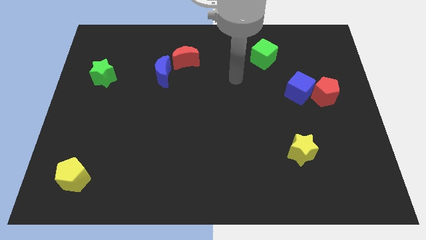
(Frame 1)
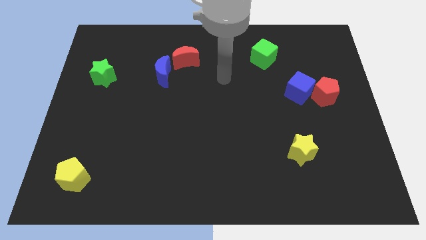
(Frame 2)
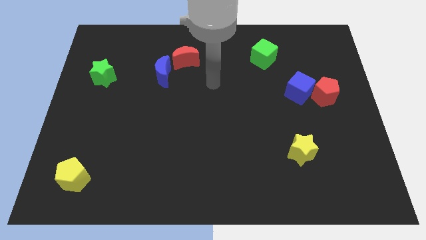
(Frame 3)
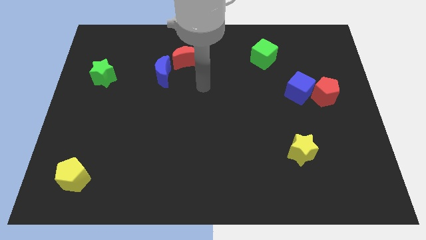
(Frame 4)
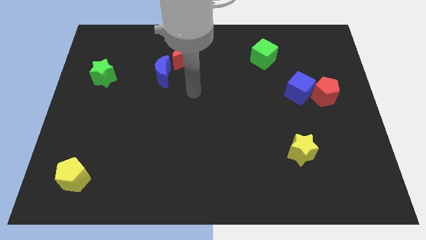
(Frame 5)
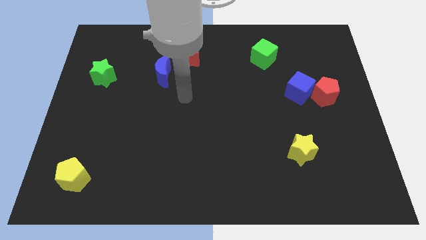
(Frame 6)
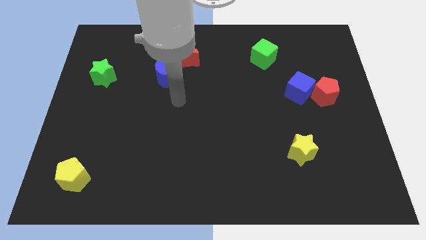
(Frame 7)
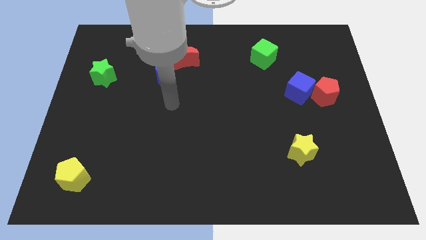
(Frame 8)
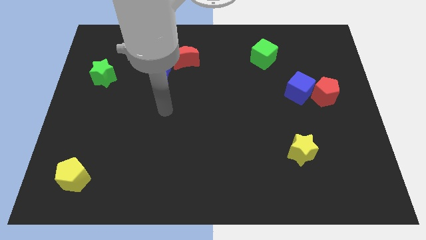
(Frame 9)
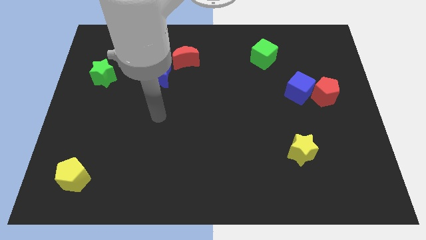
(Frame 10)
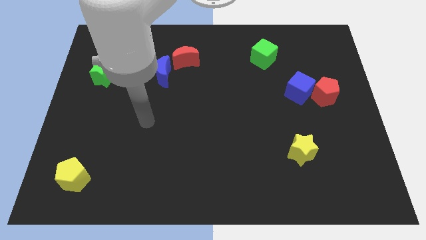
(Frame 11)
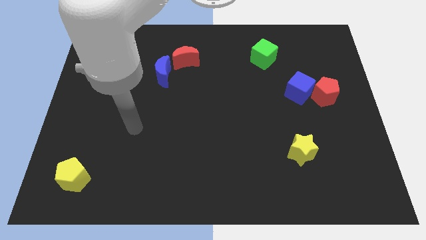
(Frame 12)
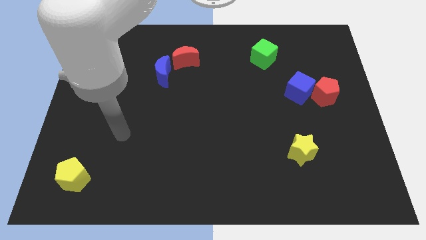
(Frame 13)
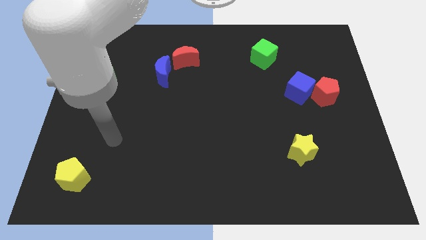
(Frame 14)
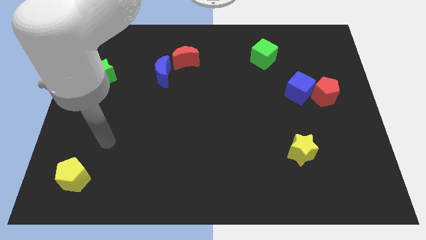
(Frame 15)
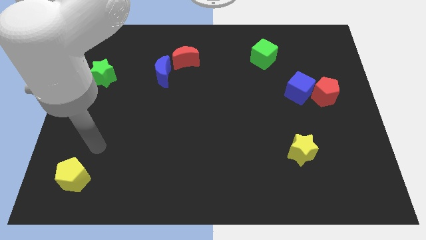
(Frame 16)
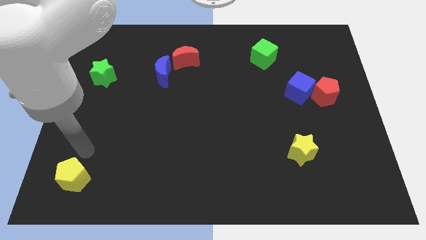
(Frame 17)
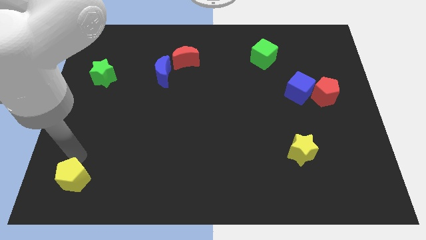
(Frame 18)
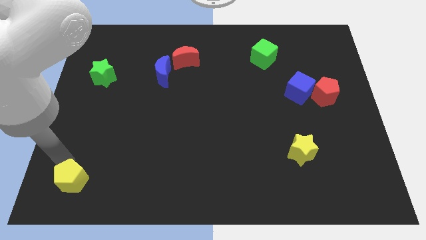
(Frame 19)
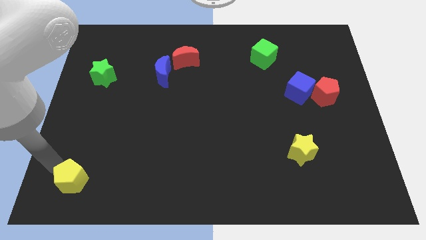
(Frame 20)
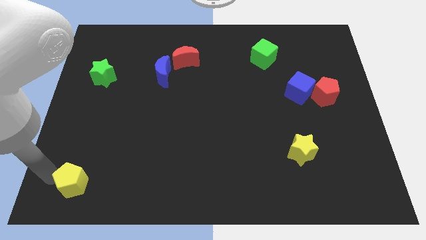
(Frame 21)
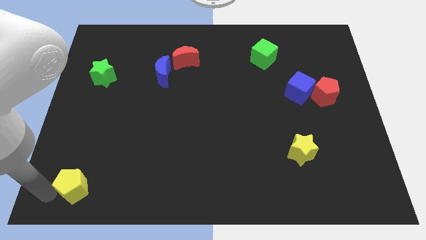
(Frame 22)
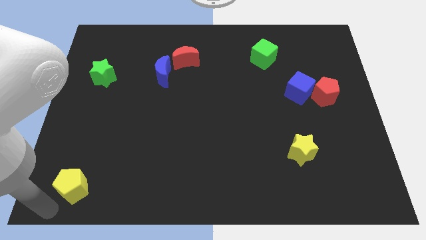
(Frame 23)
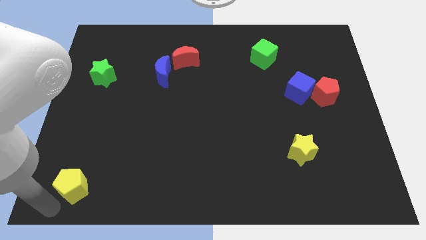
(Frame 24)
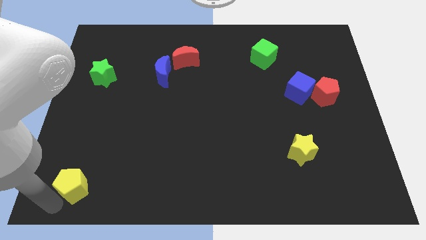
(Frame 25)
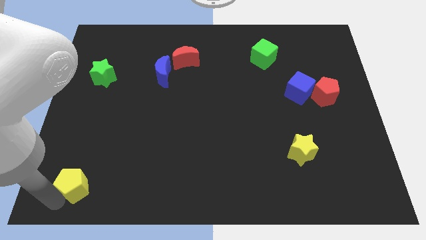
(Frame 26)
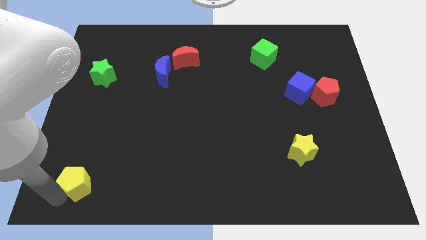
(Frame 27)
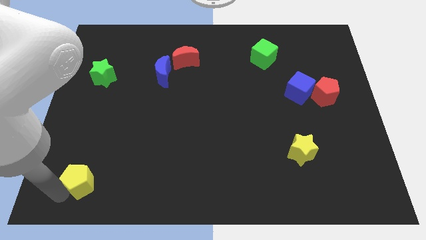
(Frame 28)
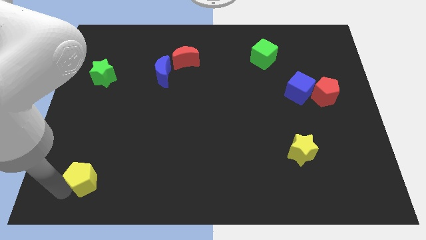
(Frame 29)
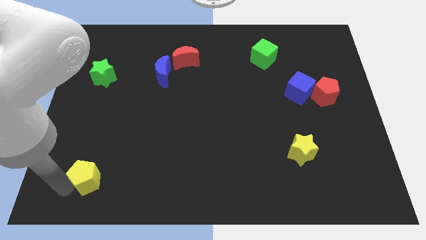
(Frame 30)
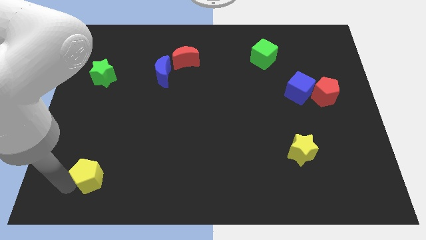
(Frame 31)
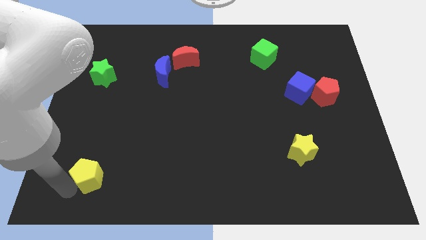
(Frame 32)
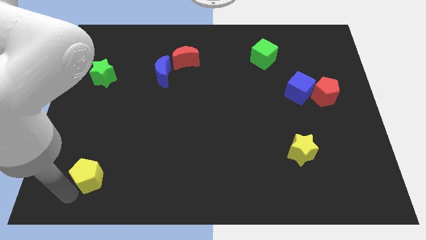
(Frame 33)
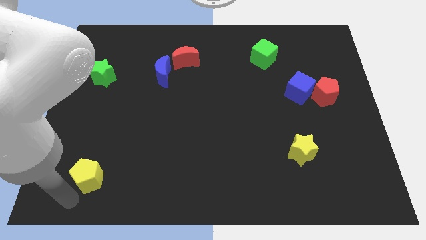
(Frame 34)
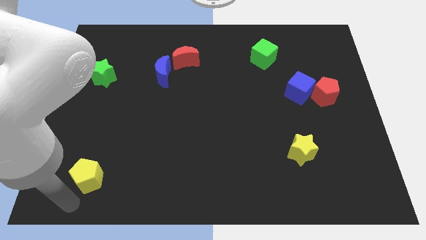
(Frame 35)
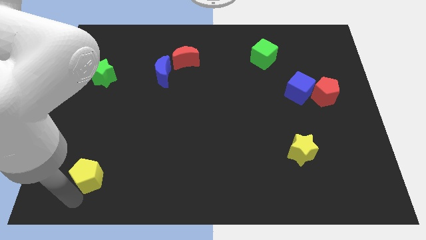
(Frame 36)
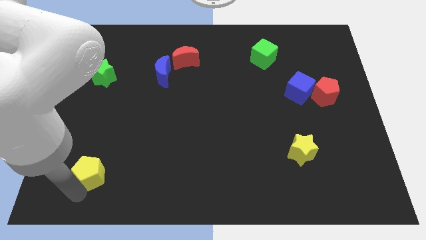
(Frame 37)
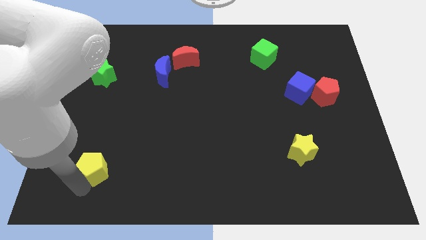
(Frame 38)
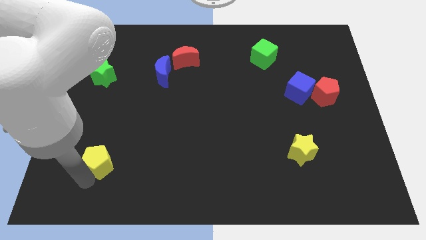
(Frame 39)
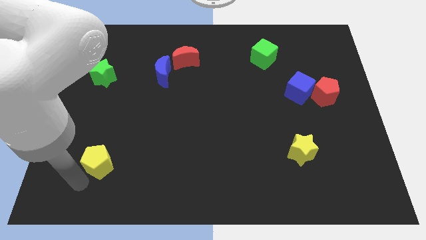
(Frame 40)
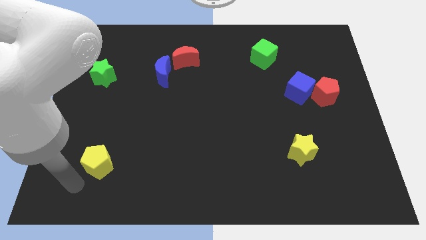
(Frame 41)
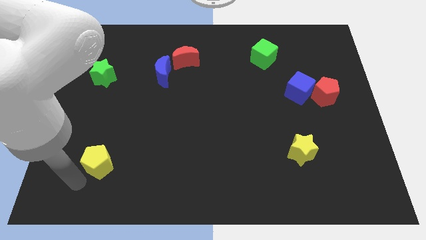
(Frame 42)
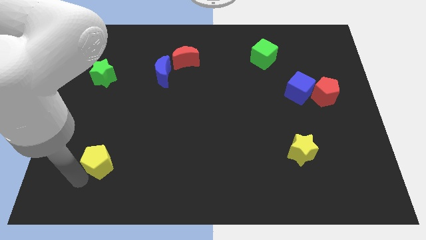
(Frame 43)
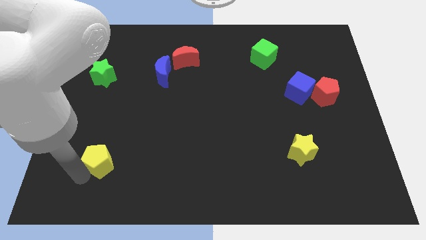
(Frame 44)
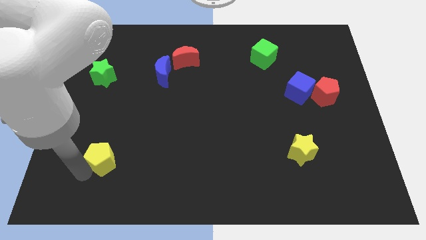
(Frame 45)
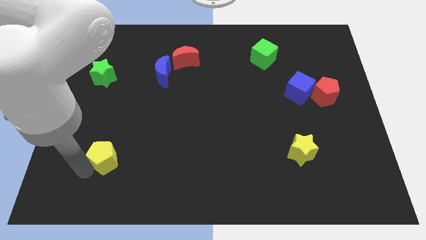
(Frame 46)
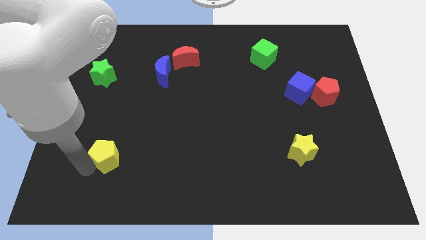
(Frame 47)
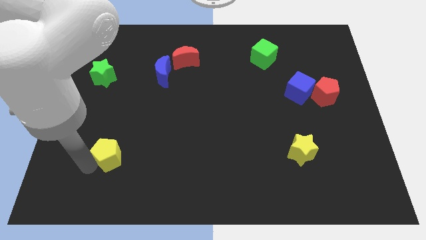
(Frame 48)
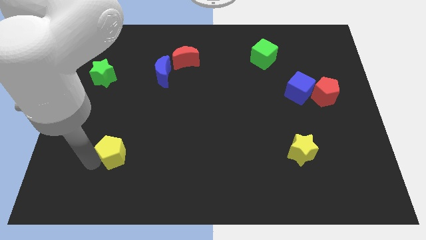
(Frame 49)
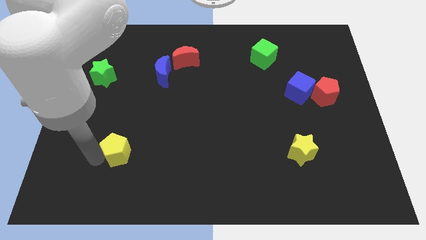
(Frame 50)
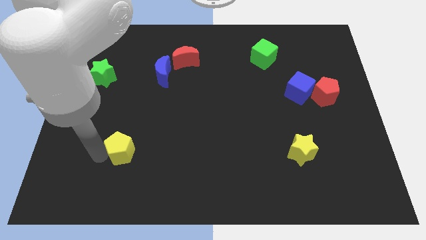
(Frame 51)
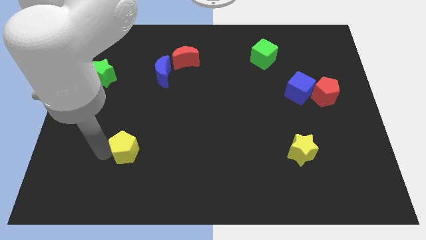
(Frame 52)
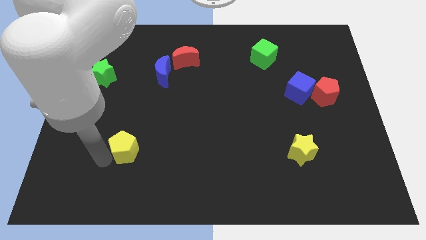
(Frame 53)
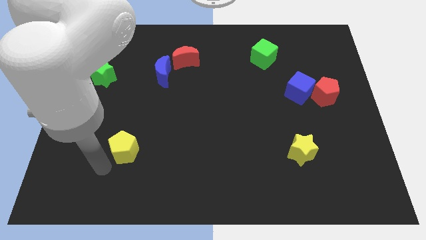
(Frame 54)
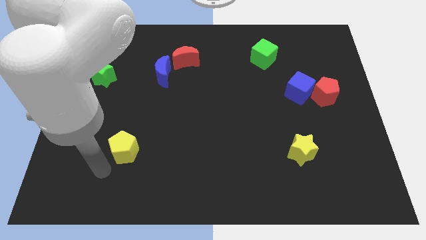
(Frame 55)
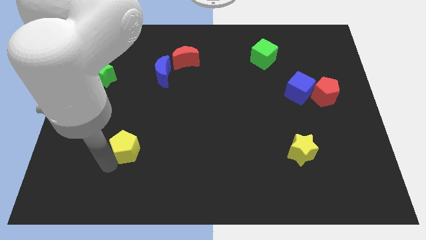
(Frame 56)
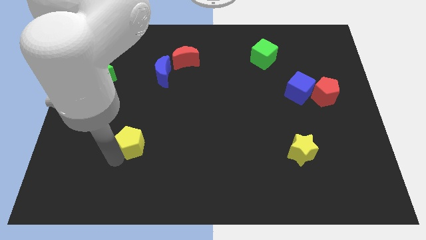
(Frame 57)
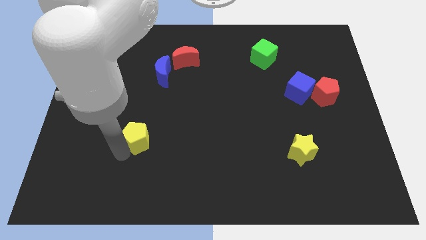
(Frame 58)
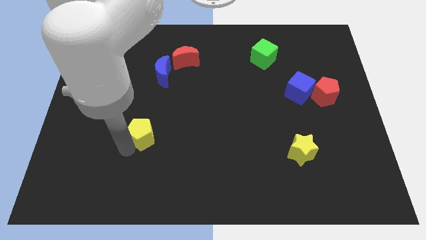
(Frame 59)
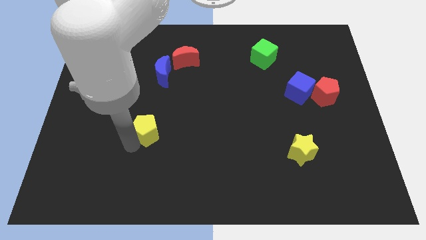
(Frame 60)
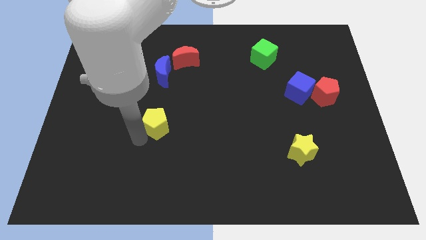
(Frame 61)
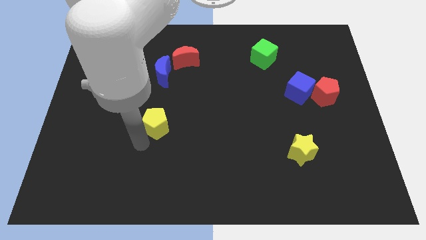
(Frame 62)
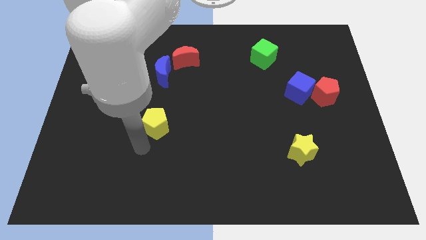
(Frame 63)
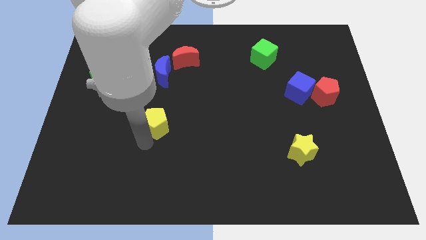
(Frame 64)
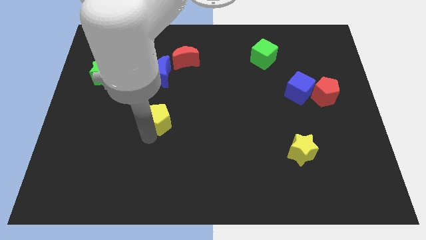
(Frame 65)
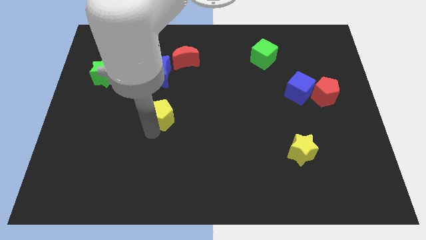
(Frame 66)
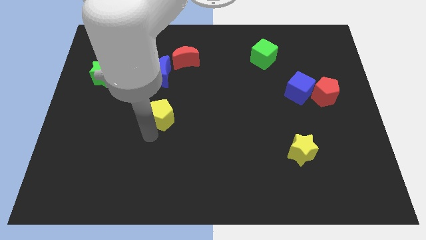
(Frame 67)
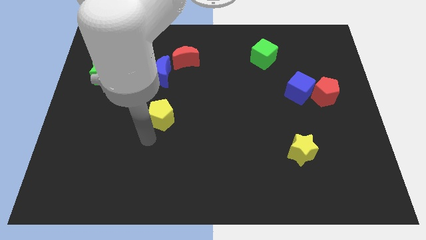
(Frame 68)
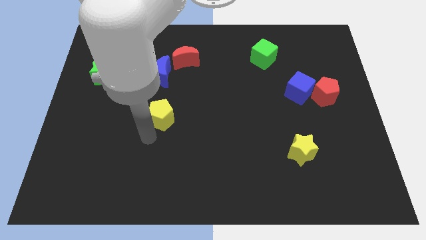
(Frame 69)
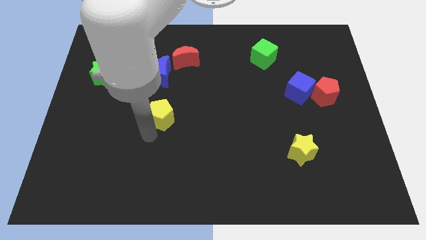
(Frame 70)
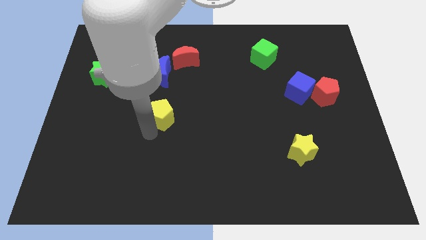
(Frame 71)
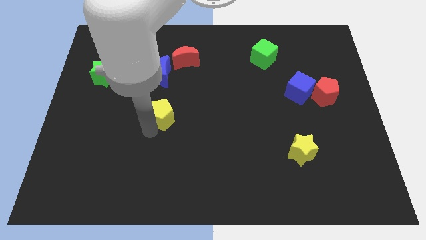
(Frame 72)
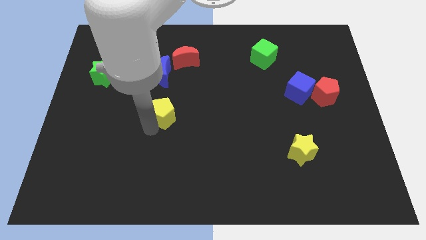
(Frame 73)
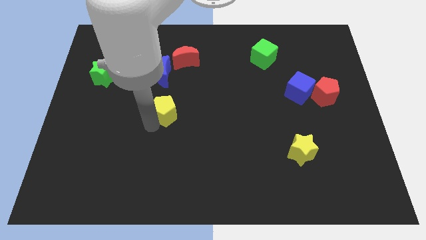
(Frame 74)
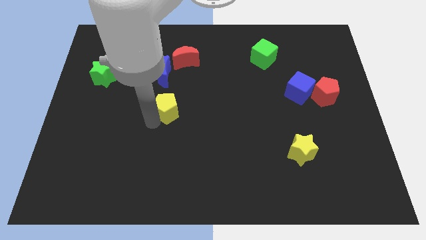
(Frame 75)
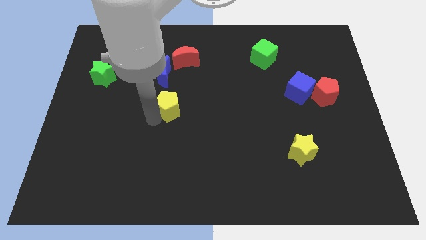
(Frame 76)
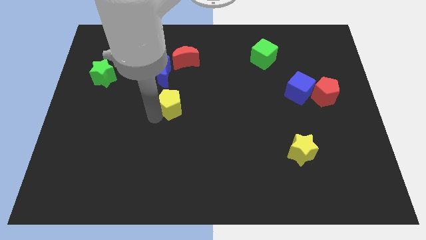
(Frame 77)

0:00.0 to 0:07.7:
push the yellow pentagon below the red moon
